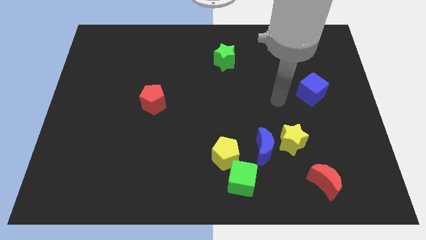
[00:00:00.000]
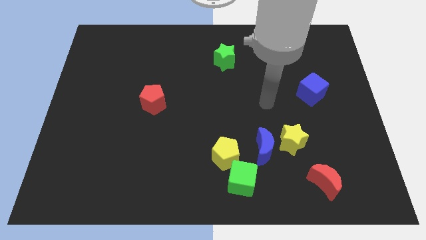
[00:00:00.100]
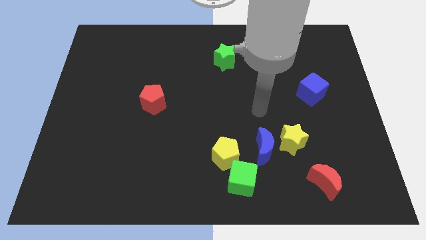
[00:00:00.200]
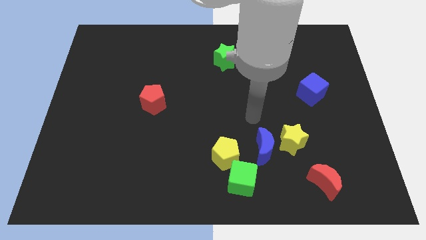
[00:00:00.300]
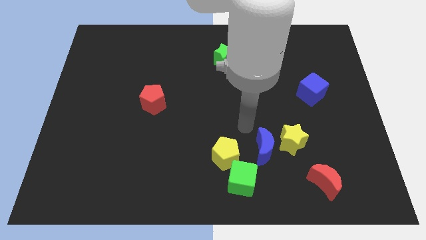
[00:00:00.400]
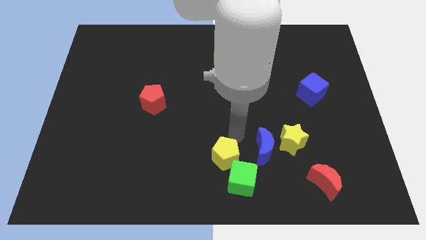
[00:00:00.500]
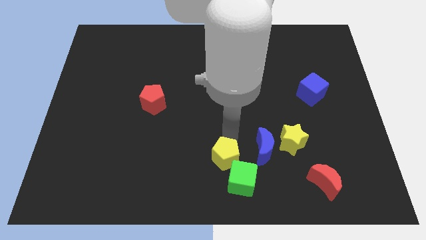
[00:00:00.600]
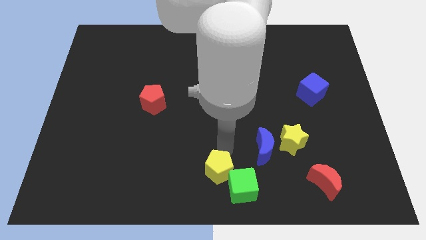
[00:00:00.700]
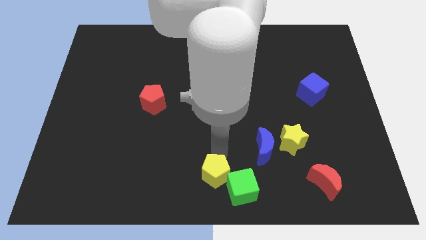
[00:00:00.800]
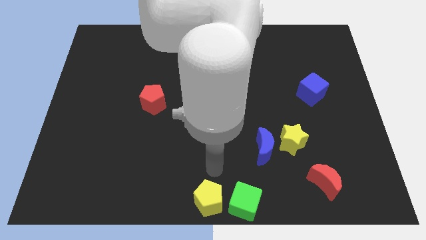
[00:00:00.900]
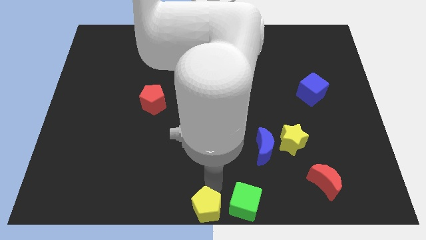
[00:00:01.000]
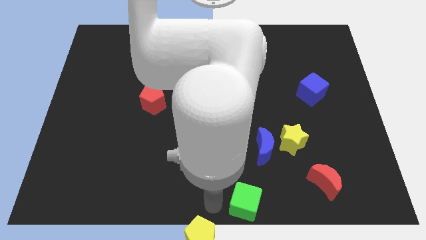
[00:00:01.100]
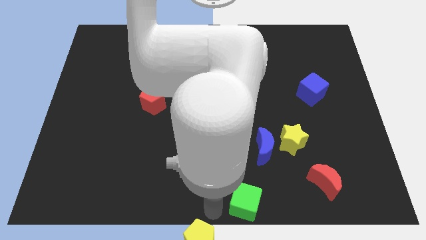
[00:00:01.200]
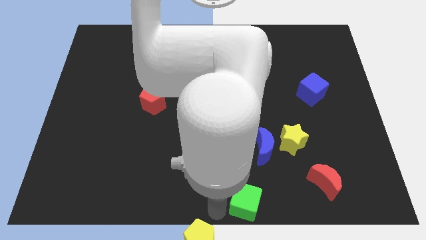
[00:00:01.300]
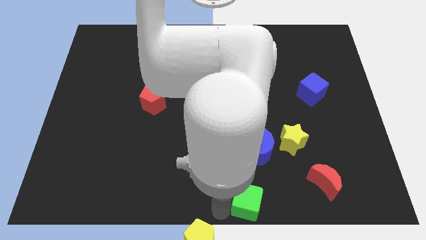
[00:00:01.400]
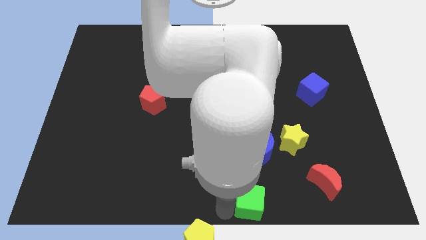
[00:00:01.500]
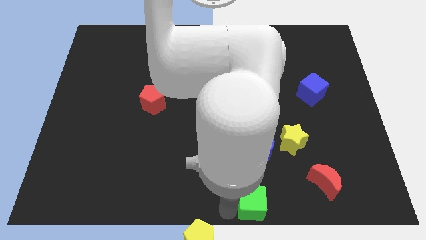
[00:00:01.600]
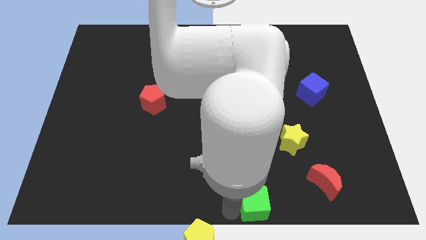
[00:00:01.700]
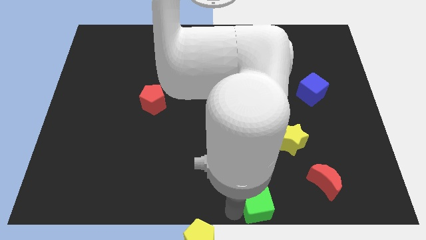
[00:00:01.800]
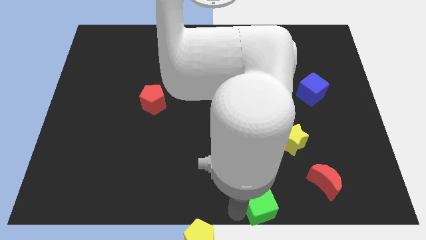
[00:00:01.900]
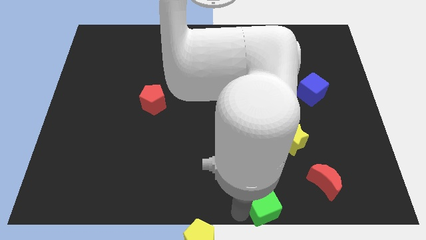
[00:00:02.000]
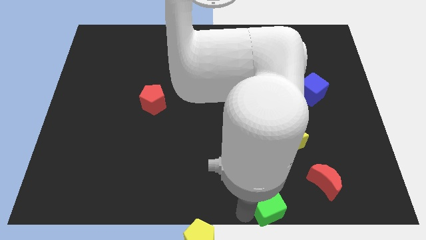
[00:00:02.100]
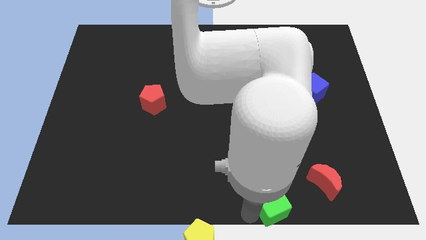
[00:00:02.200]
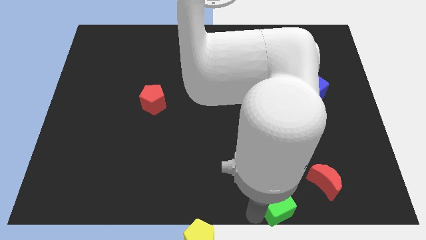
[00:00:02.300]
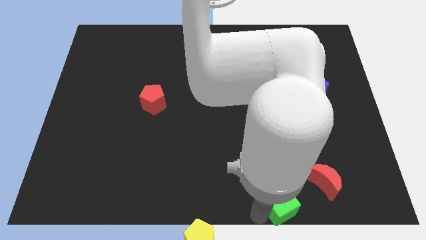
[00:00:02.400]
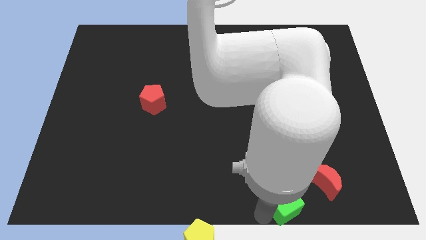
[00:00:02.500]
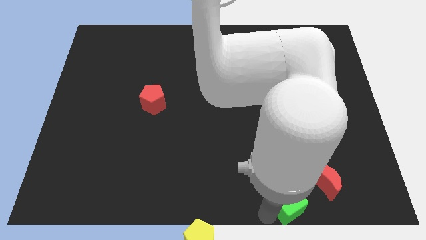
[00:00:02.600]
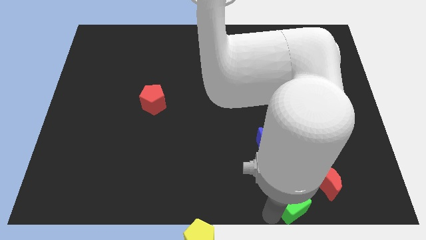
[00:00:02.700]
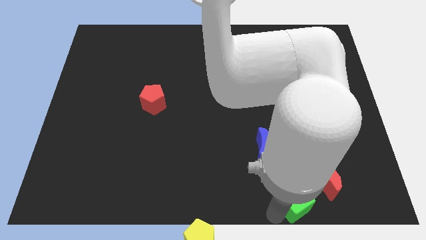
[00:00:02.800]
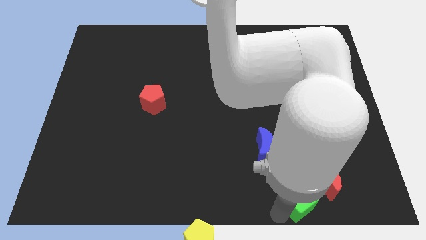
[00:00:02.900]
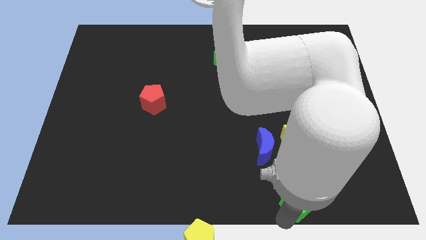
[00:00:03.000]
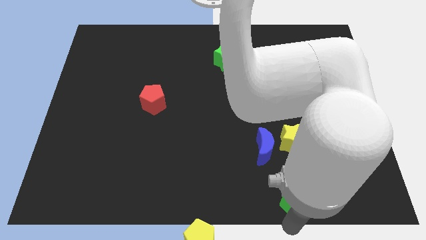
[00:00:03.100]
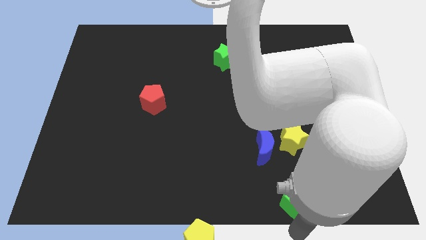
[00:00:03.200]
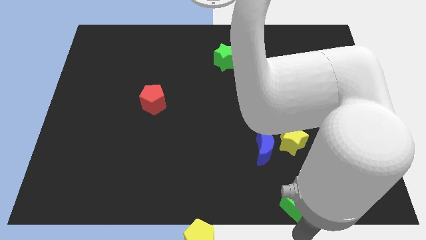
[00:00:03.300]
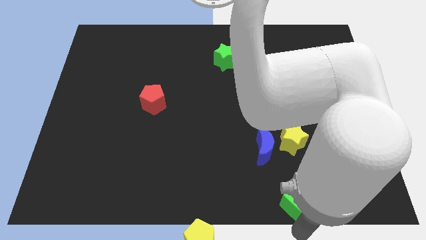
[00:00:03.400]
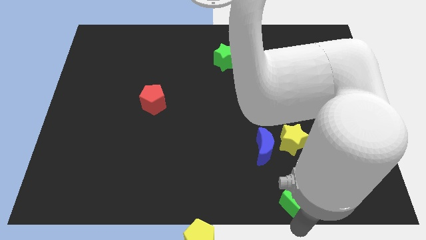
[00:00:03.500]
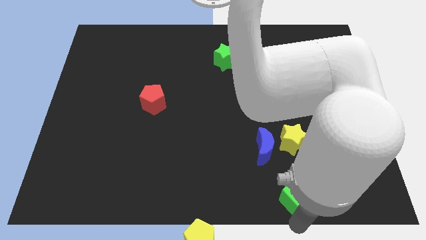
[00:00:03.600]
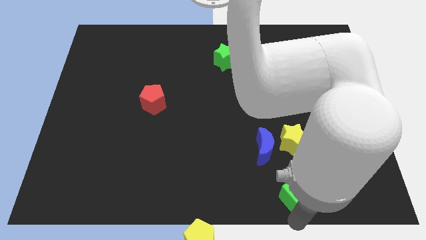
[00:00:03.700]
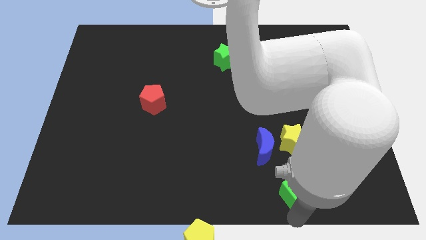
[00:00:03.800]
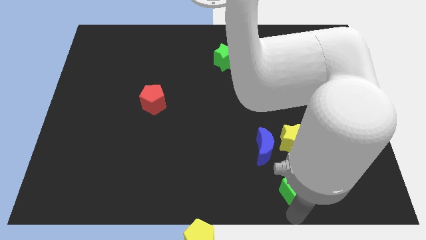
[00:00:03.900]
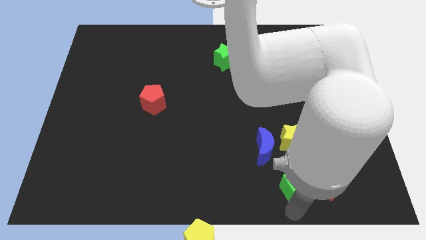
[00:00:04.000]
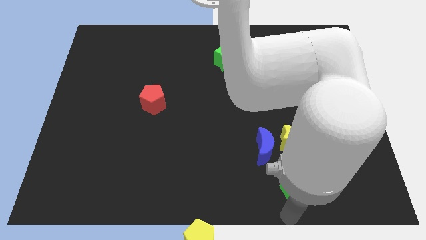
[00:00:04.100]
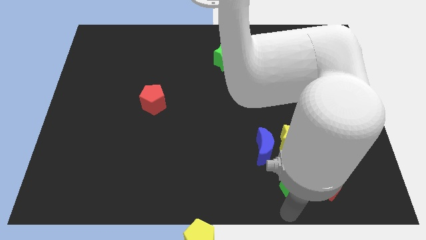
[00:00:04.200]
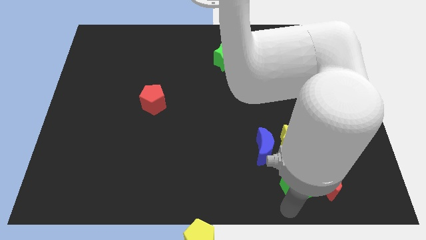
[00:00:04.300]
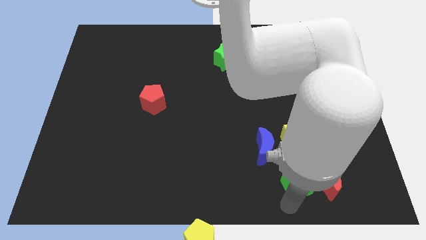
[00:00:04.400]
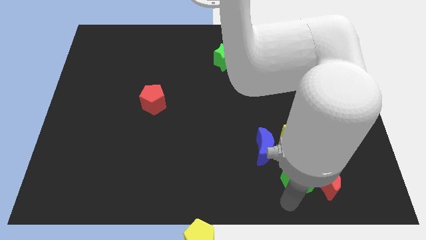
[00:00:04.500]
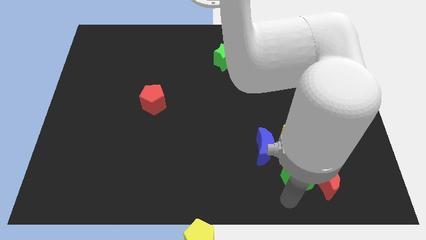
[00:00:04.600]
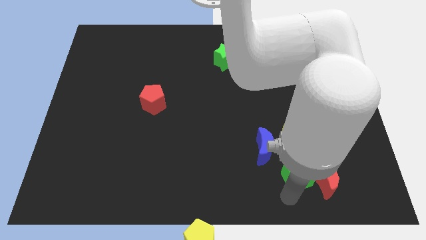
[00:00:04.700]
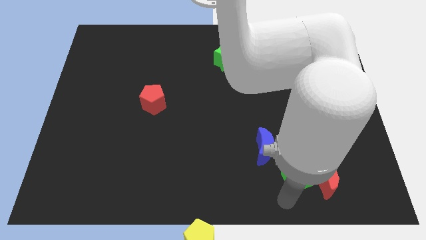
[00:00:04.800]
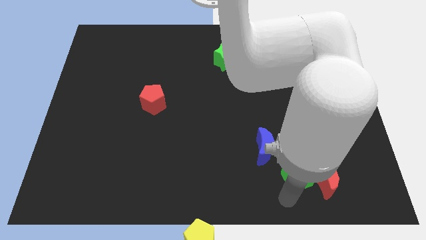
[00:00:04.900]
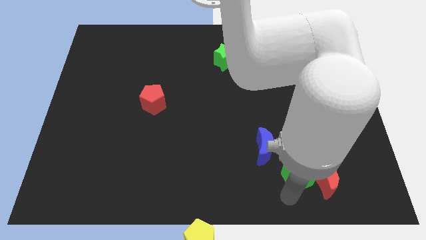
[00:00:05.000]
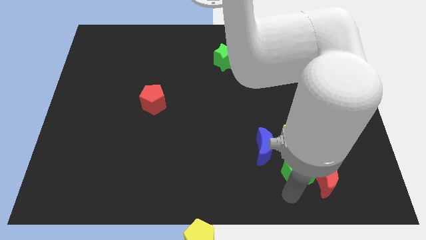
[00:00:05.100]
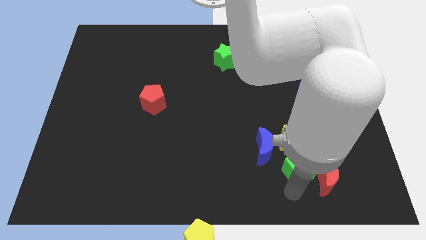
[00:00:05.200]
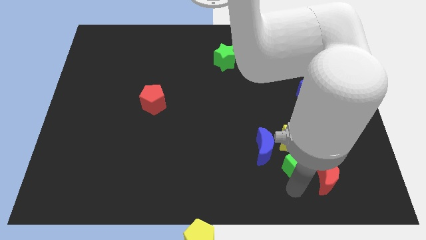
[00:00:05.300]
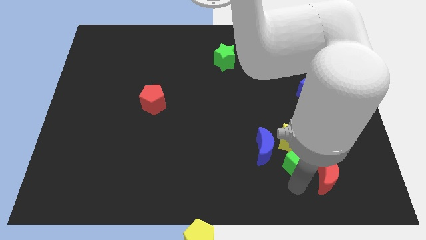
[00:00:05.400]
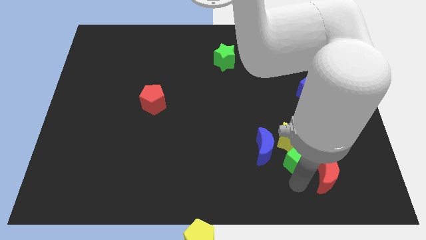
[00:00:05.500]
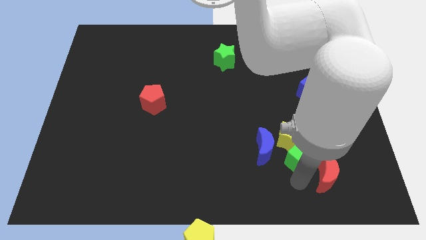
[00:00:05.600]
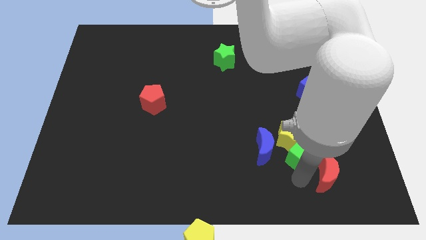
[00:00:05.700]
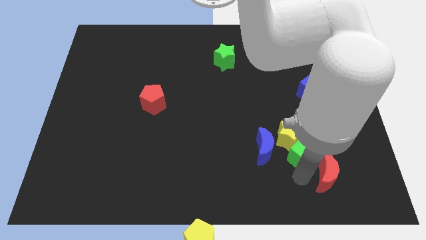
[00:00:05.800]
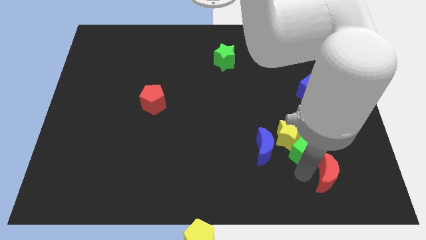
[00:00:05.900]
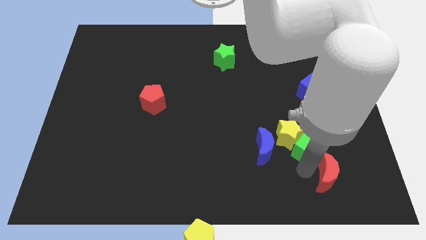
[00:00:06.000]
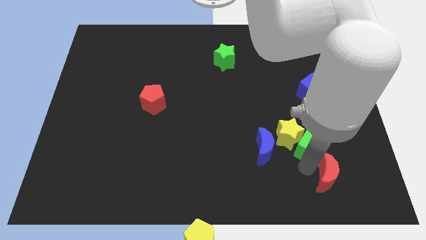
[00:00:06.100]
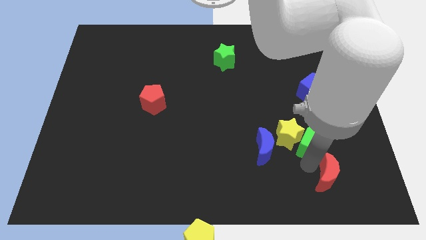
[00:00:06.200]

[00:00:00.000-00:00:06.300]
put the green cube to the bottom side of the blue cube

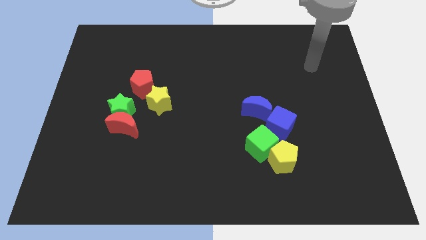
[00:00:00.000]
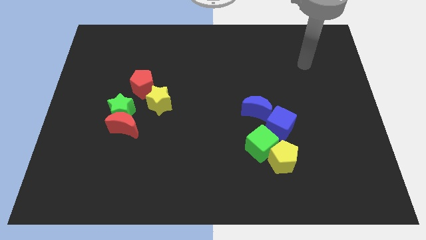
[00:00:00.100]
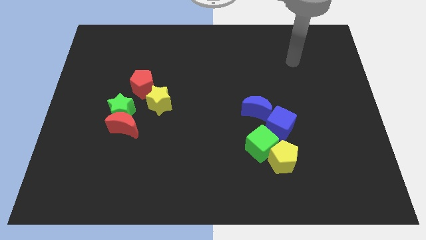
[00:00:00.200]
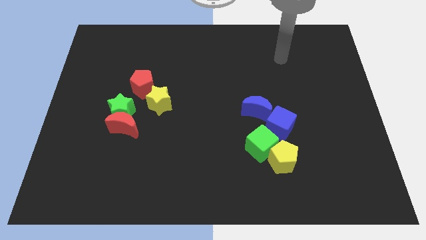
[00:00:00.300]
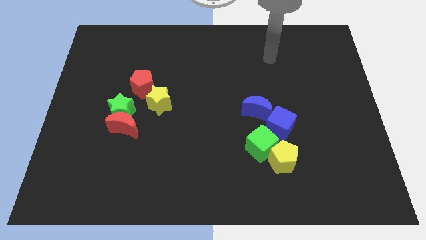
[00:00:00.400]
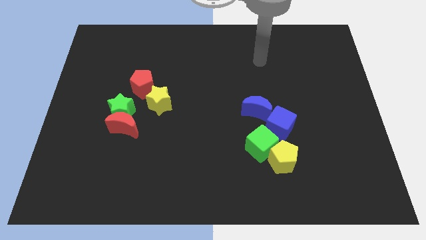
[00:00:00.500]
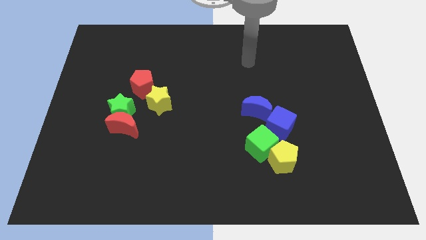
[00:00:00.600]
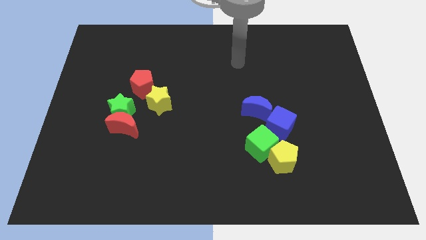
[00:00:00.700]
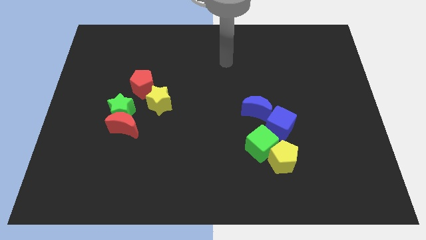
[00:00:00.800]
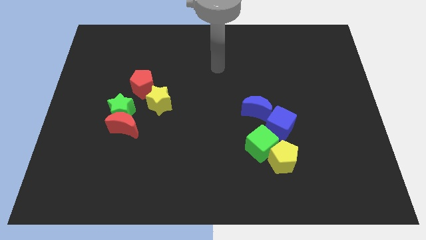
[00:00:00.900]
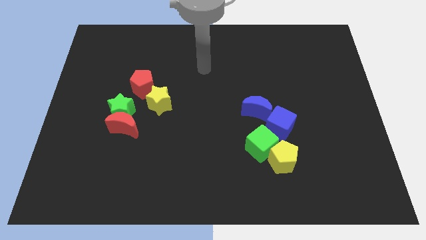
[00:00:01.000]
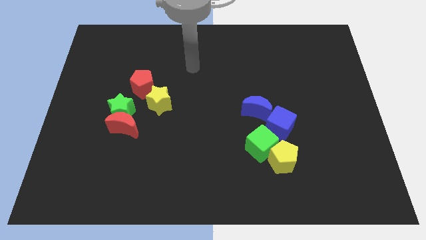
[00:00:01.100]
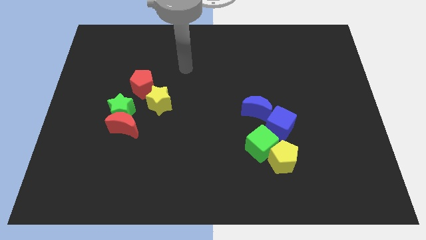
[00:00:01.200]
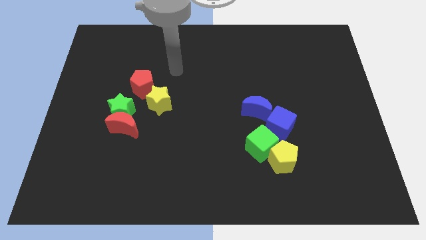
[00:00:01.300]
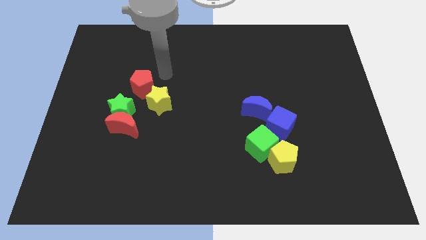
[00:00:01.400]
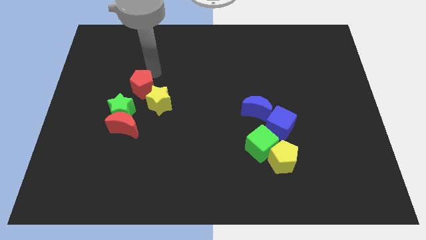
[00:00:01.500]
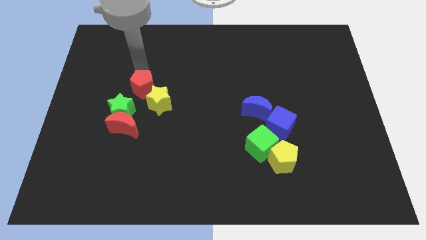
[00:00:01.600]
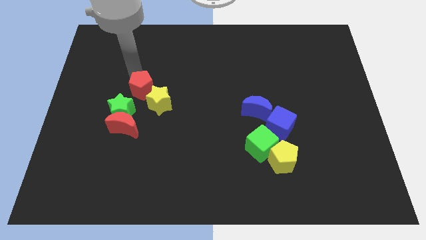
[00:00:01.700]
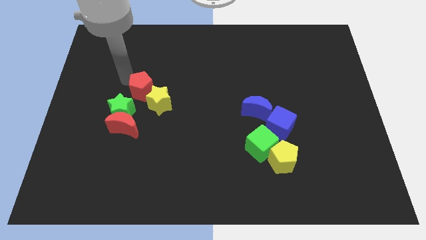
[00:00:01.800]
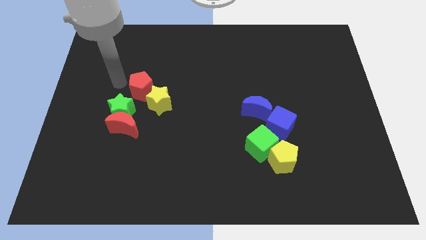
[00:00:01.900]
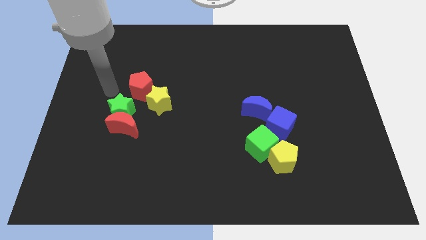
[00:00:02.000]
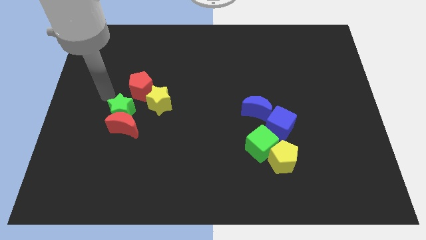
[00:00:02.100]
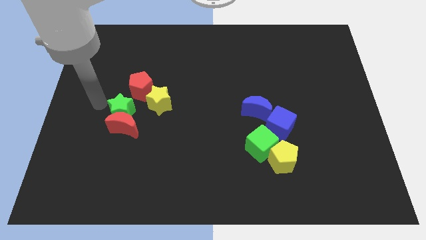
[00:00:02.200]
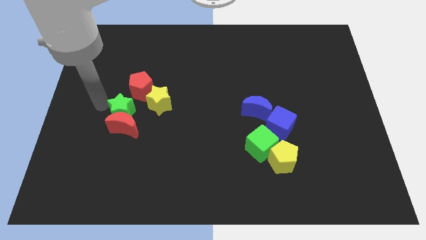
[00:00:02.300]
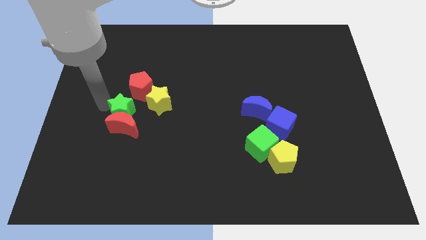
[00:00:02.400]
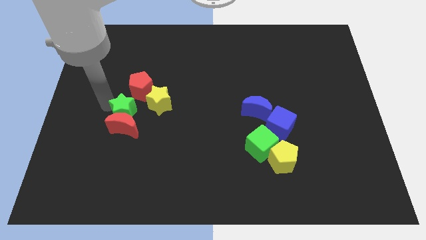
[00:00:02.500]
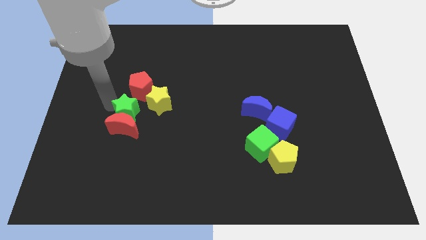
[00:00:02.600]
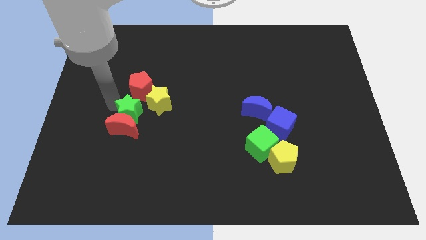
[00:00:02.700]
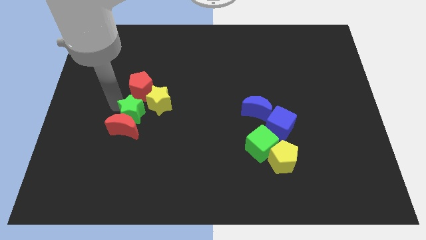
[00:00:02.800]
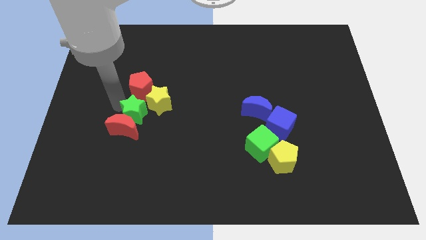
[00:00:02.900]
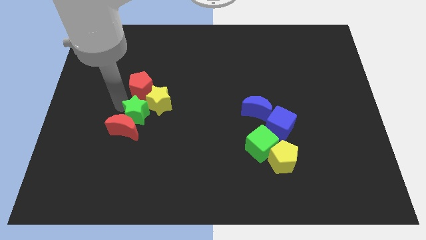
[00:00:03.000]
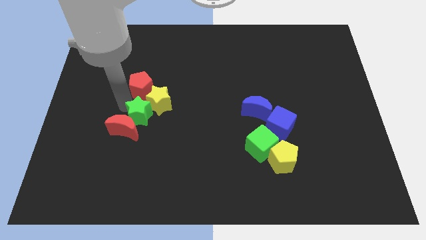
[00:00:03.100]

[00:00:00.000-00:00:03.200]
slide the green star to the bottom of the yellow star
